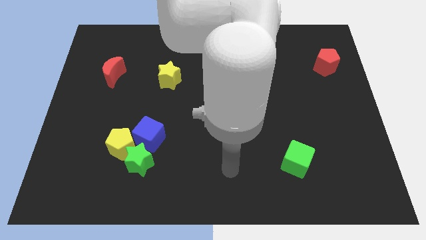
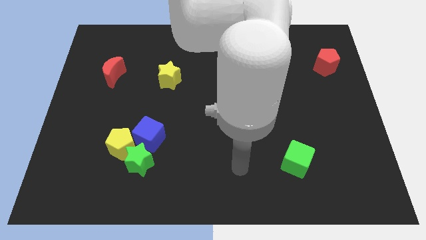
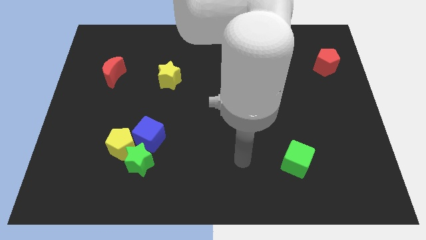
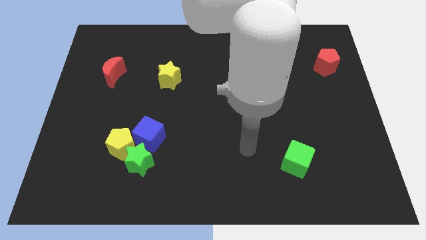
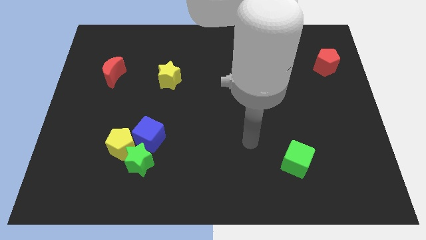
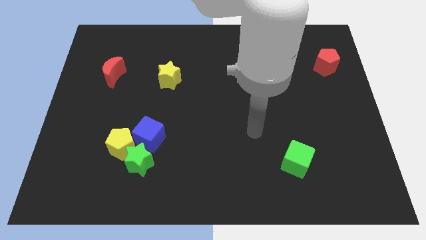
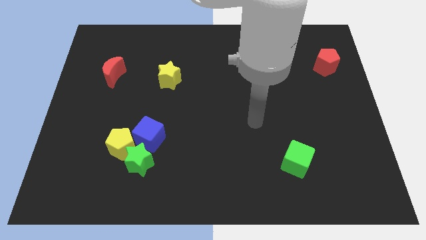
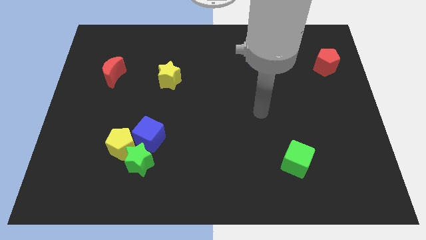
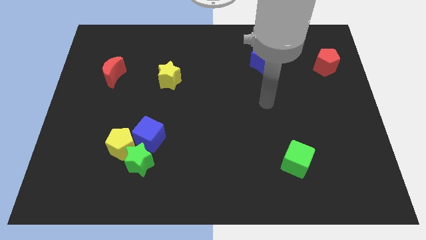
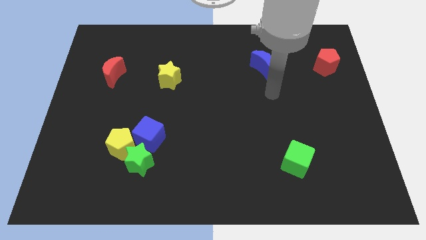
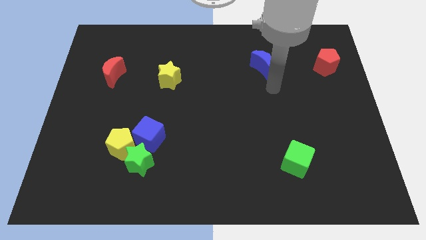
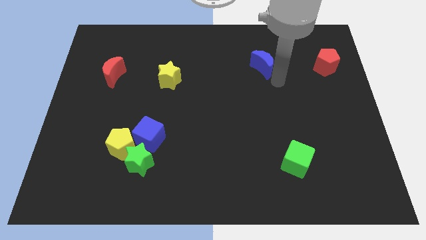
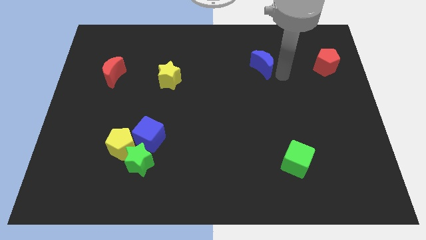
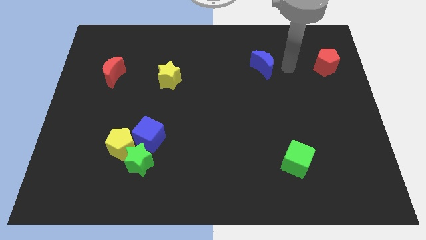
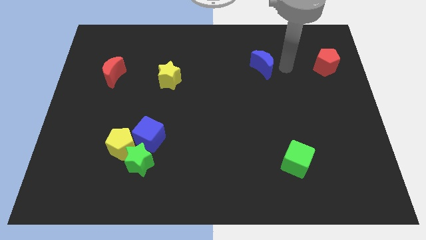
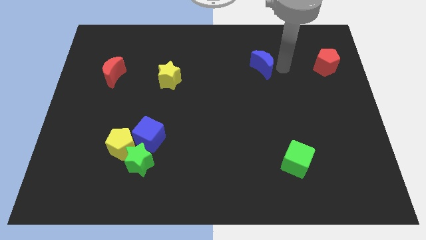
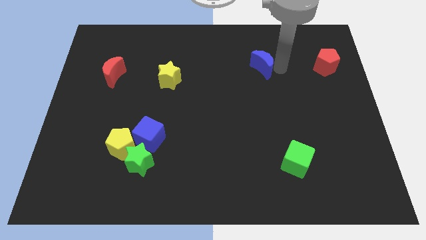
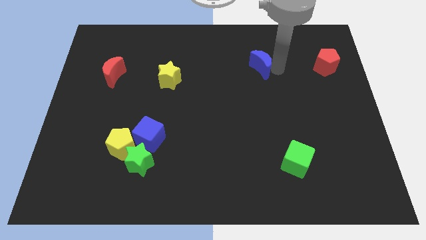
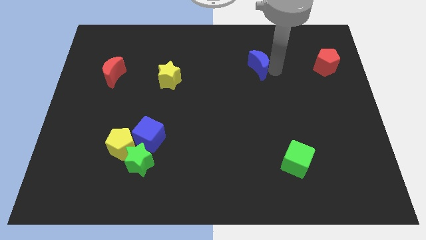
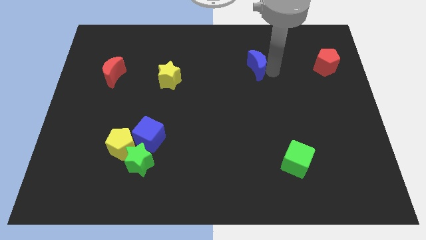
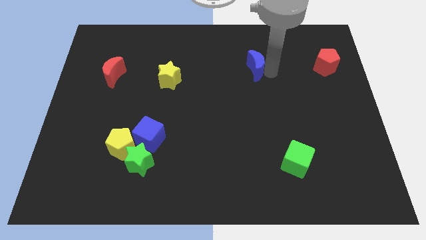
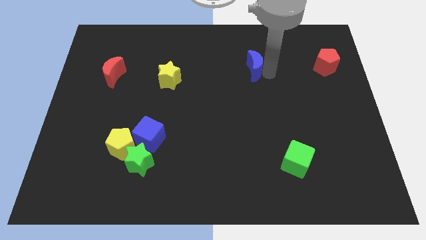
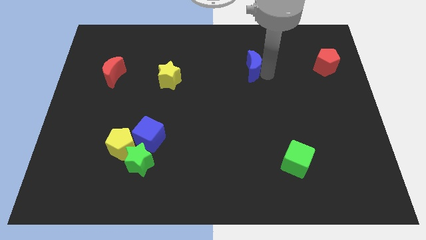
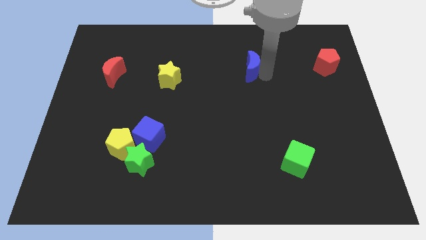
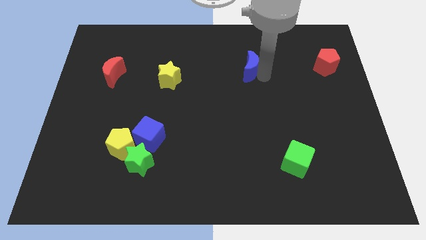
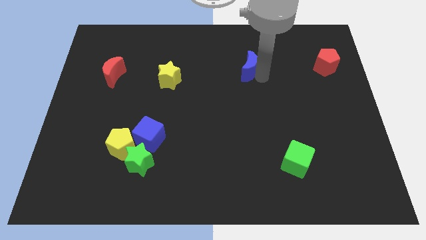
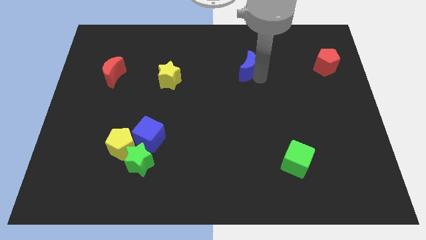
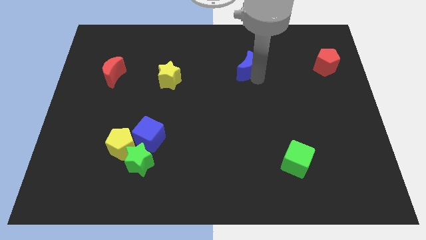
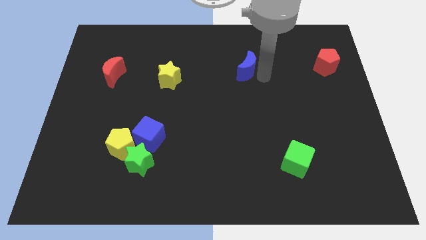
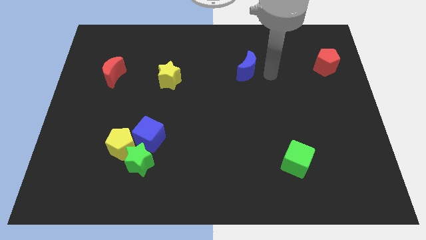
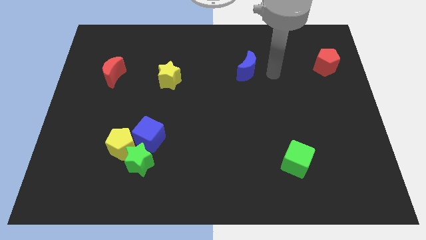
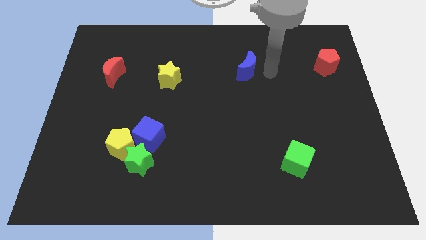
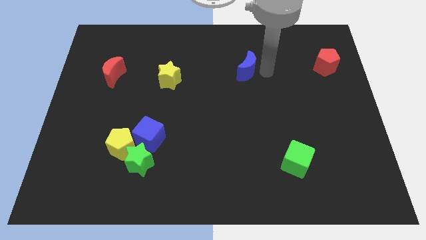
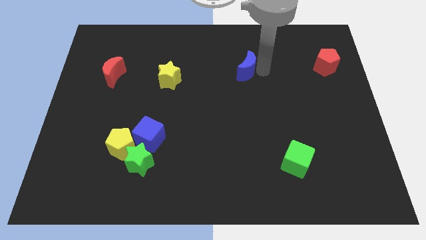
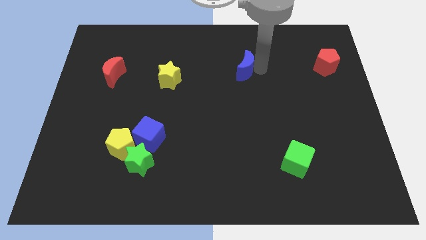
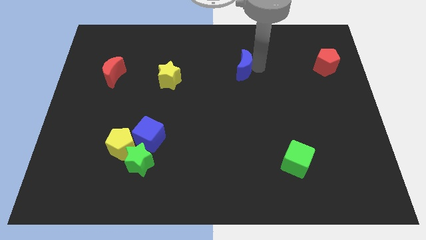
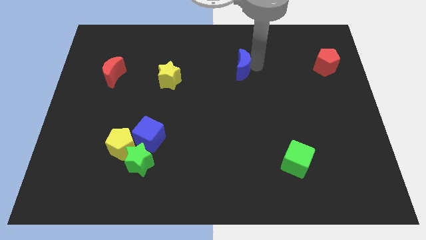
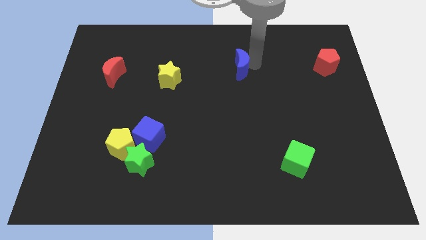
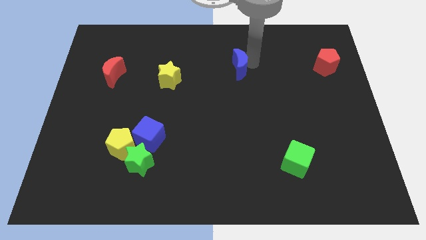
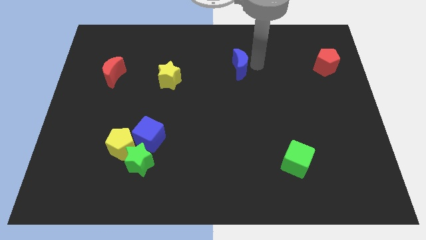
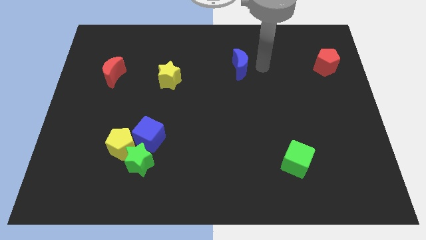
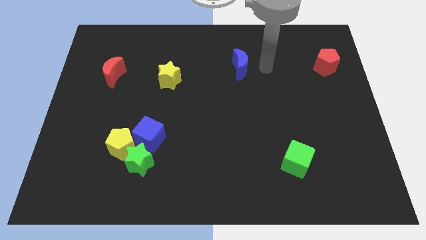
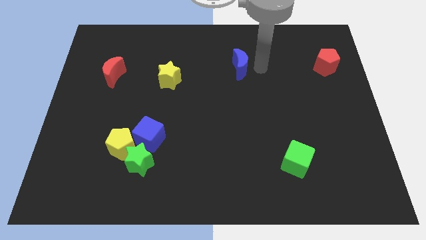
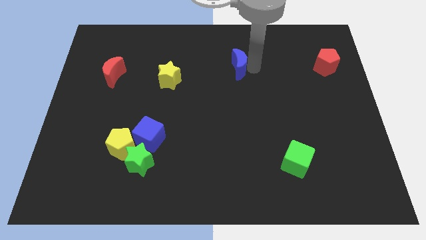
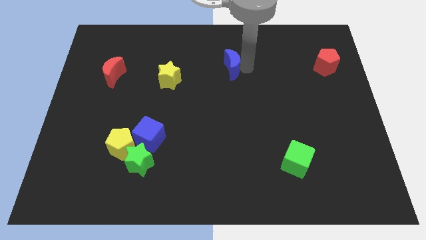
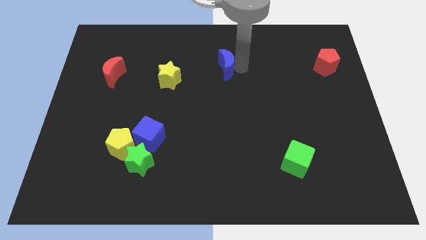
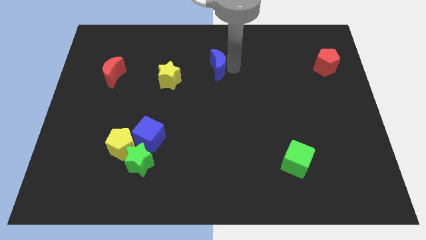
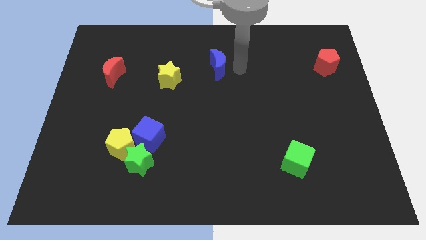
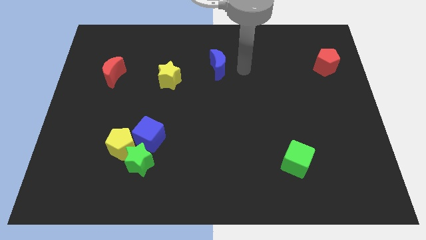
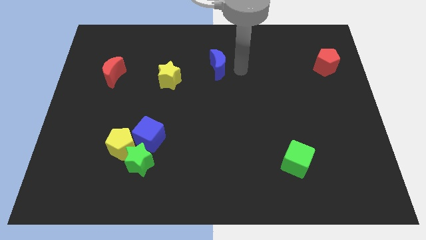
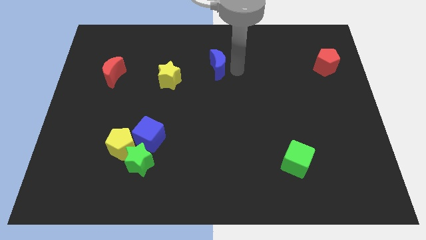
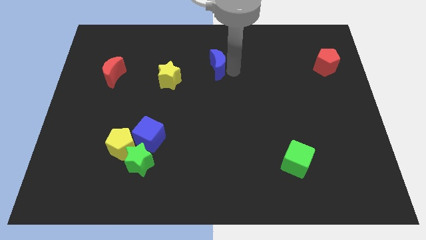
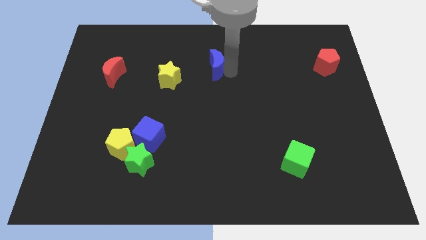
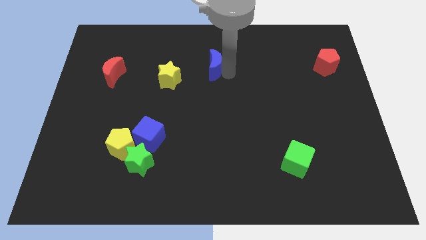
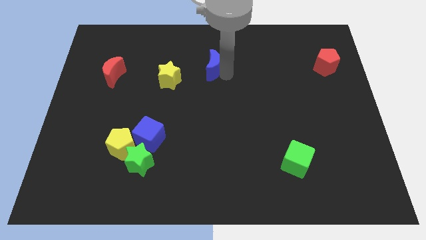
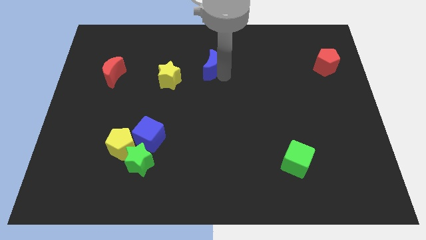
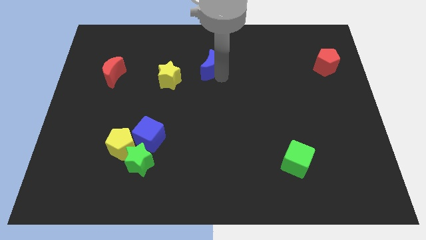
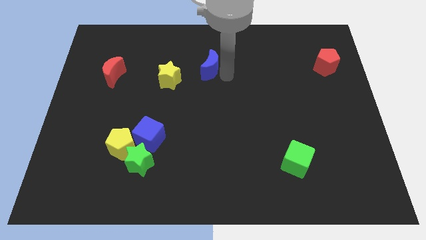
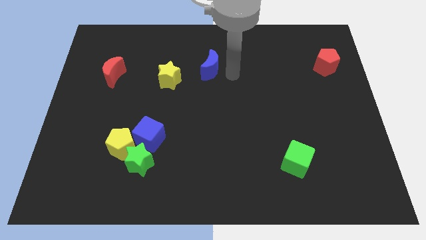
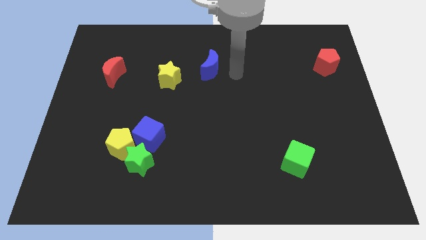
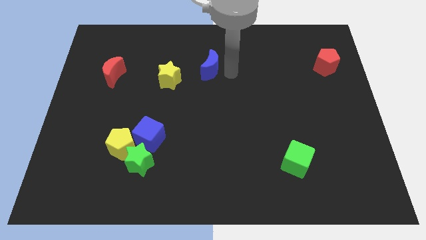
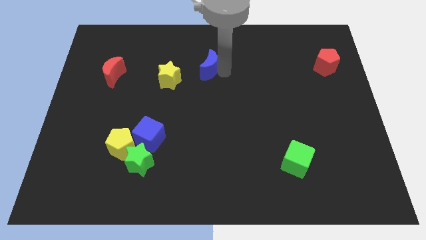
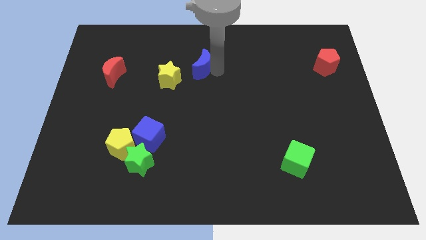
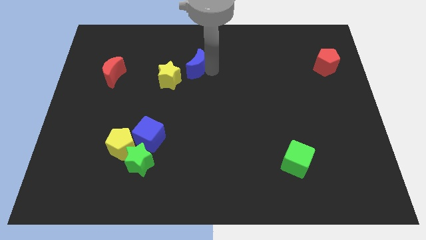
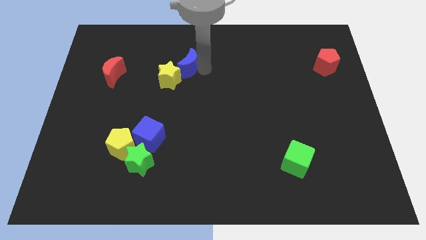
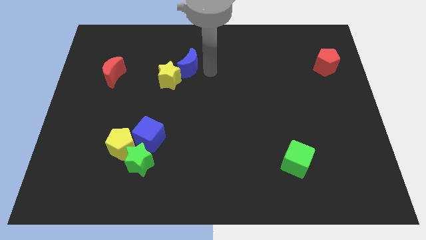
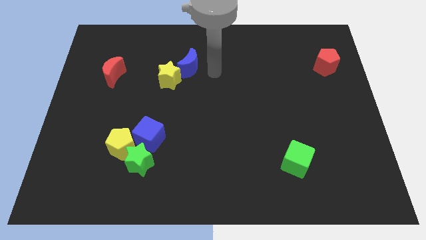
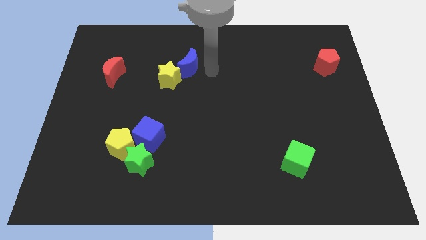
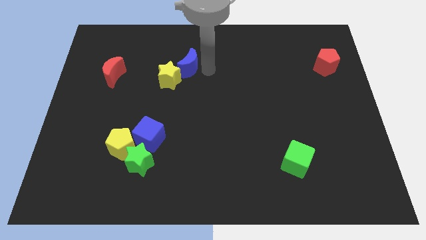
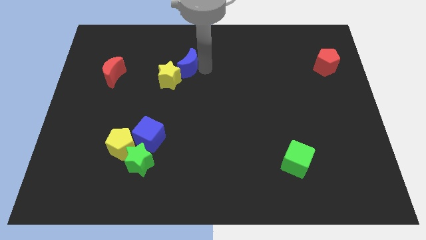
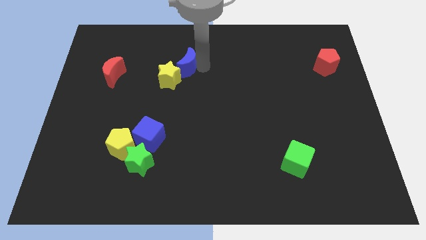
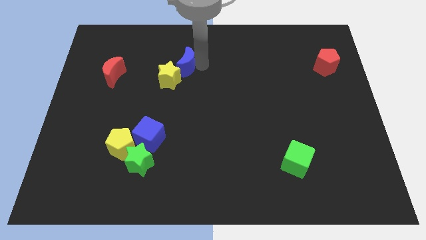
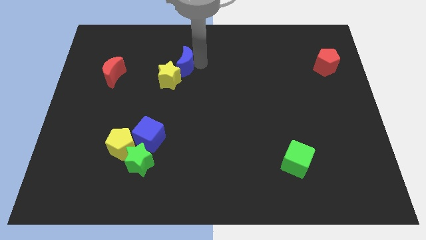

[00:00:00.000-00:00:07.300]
push the blue moon to the left

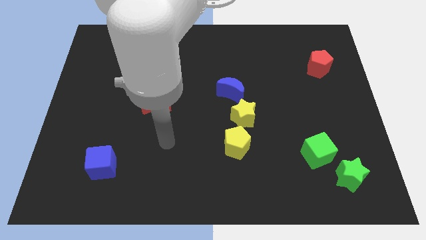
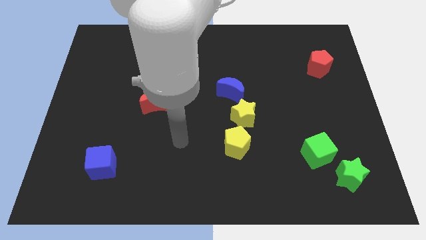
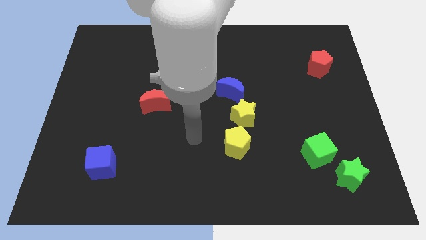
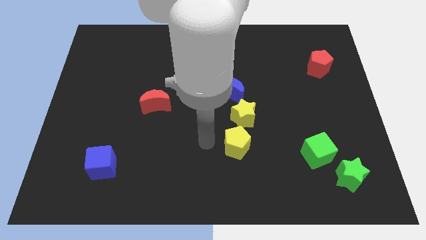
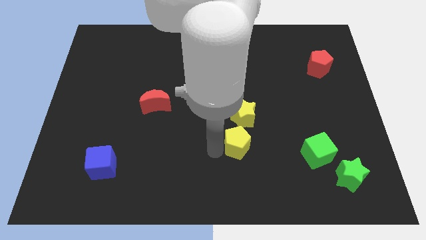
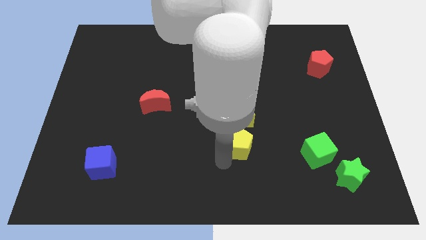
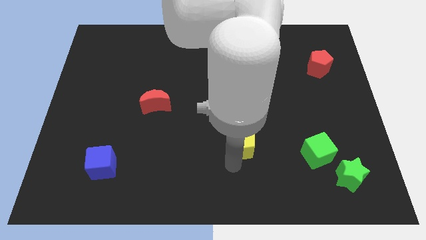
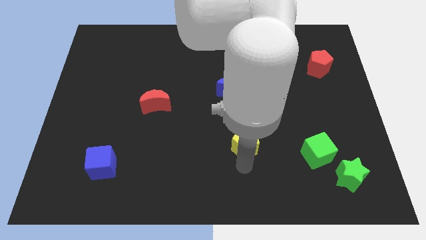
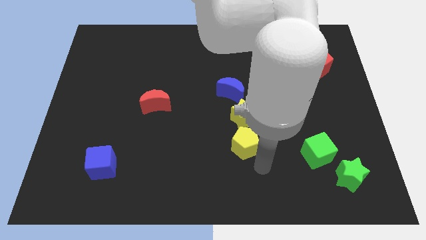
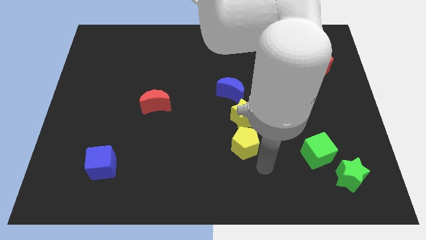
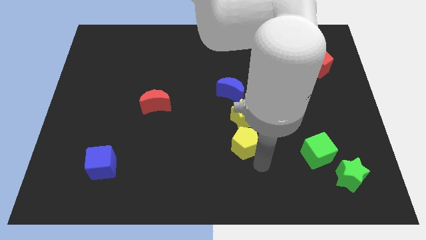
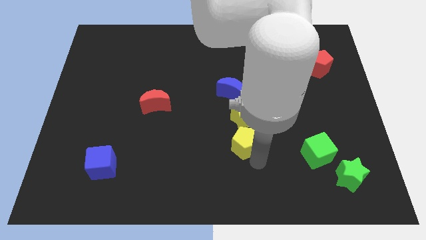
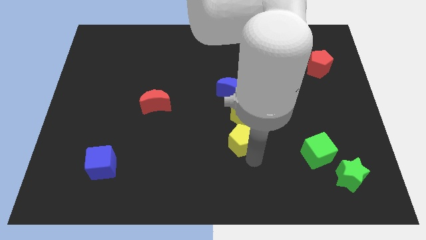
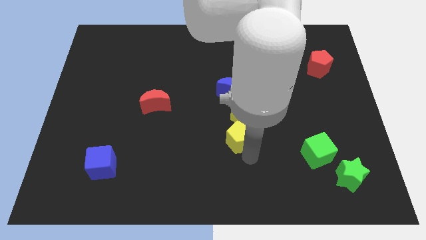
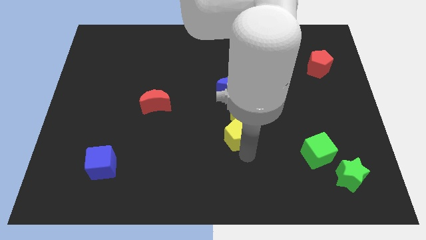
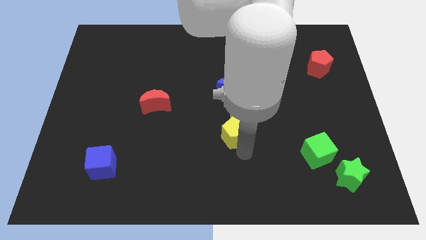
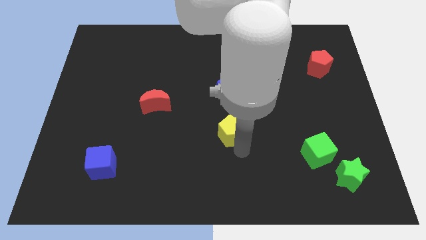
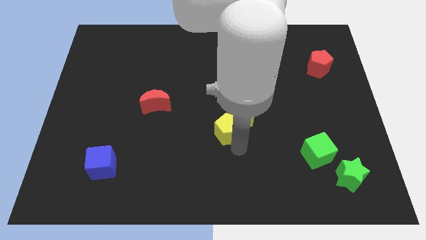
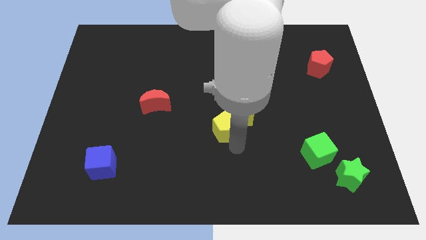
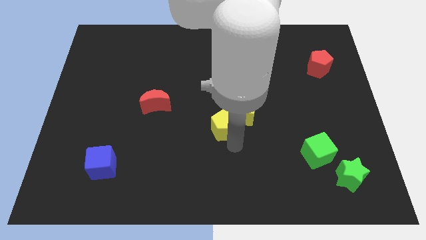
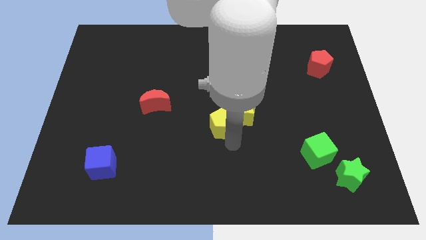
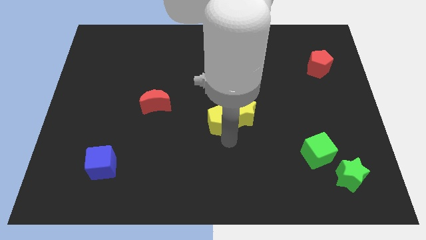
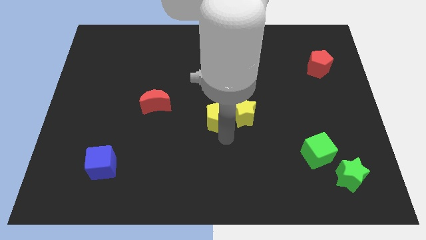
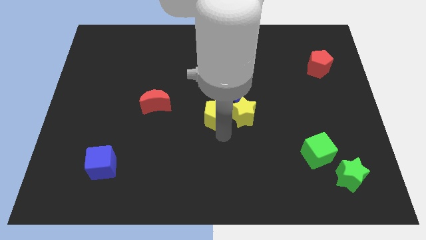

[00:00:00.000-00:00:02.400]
move the yellow pentagon a little up
